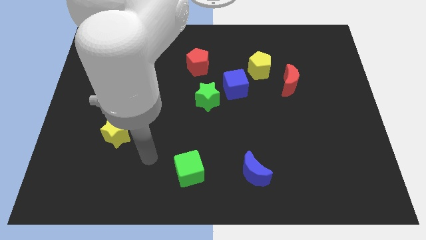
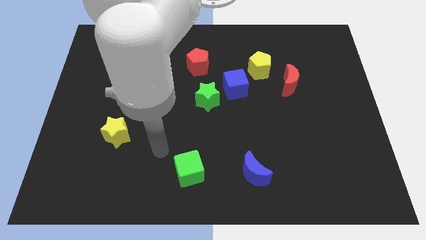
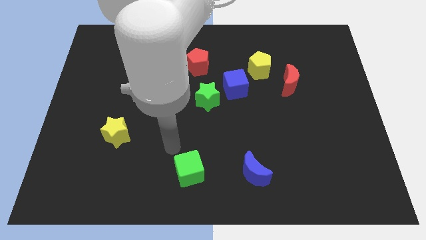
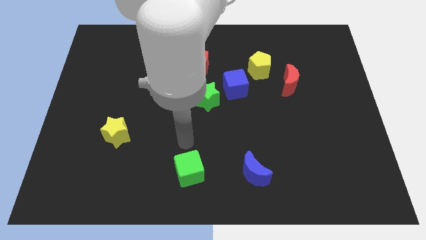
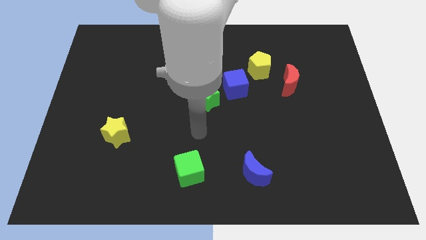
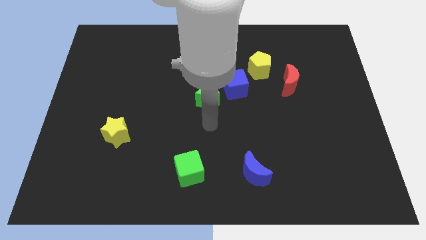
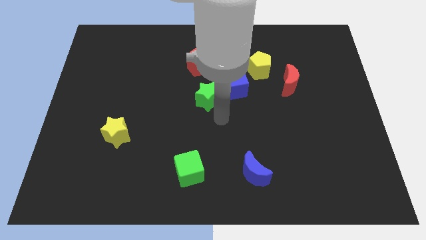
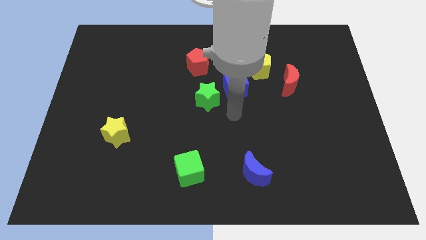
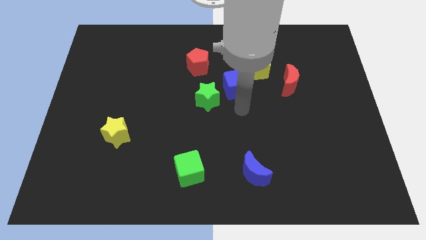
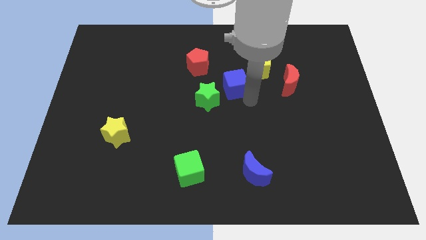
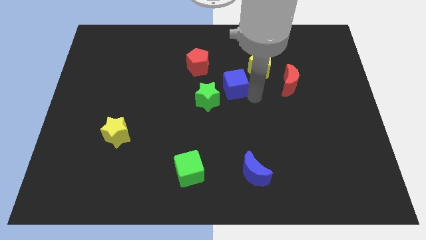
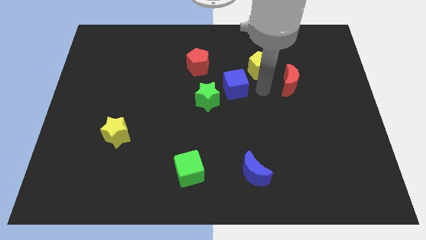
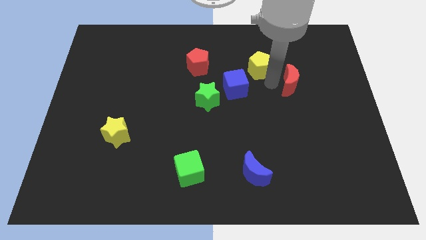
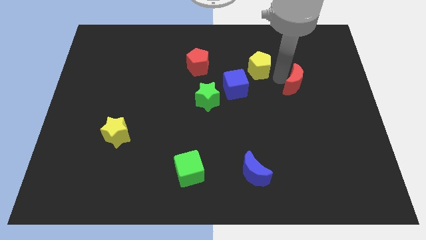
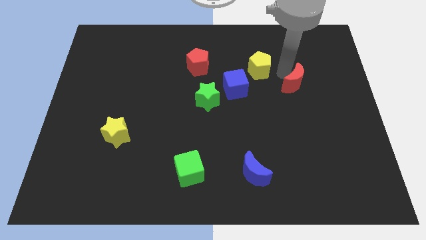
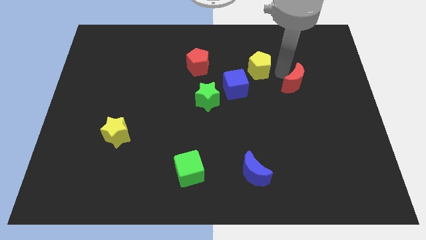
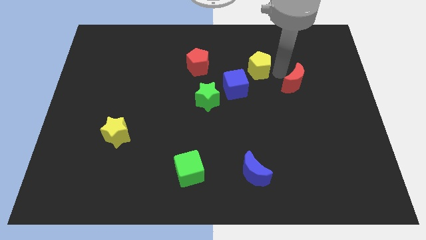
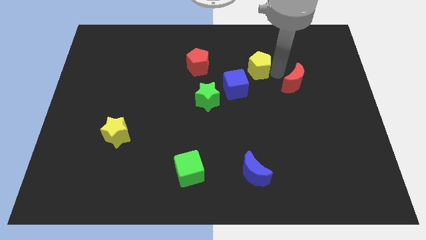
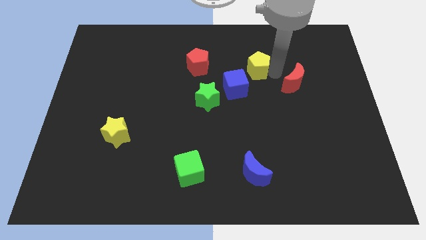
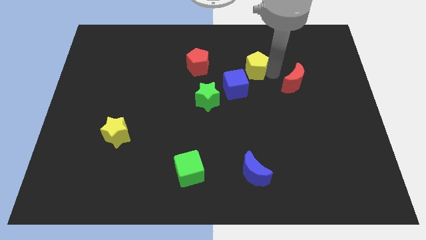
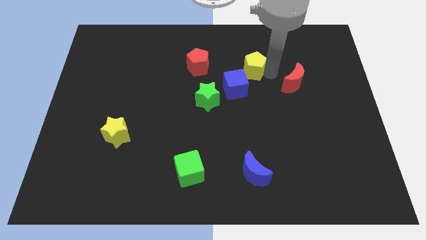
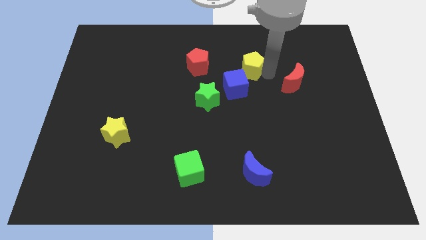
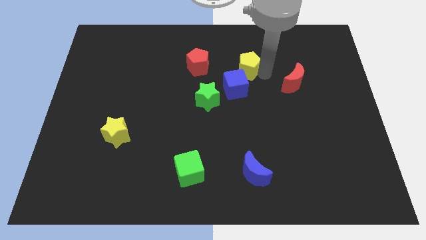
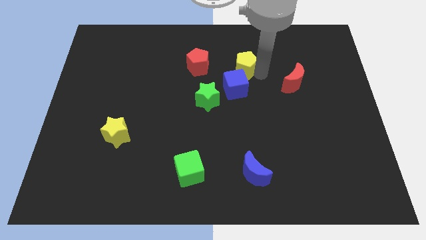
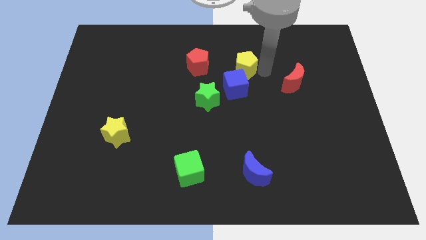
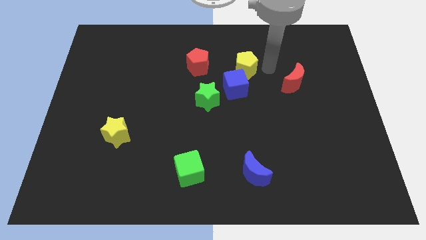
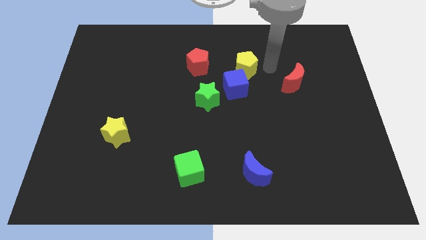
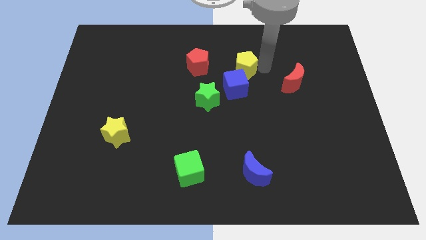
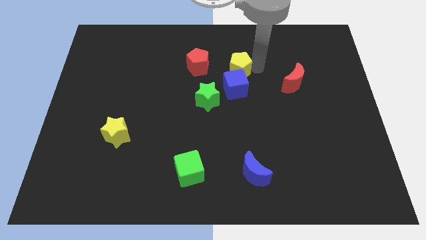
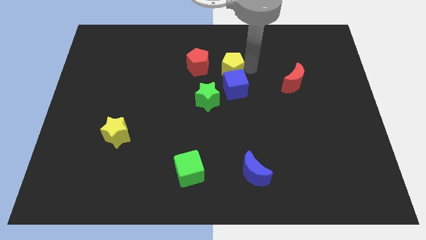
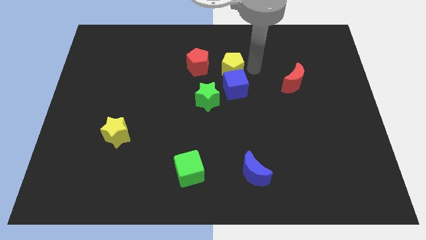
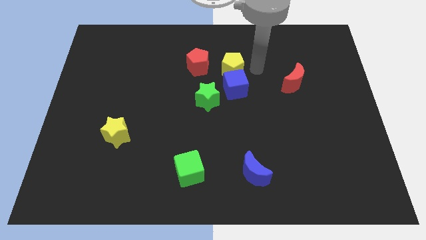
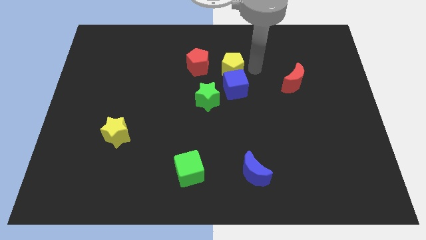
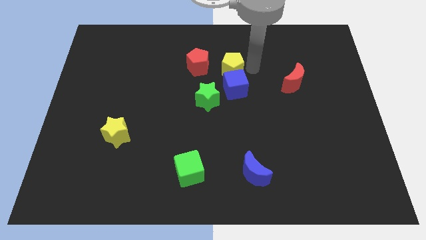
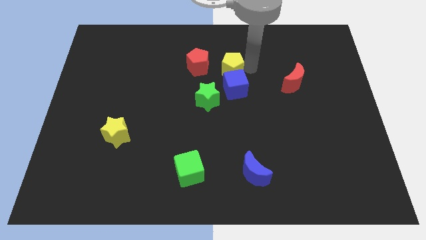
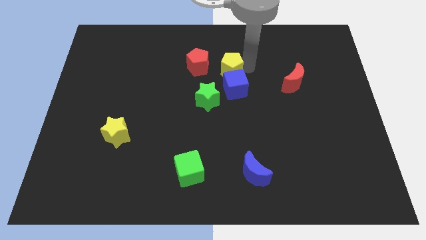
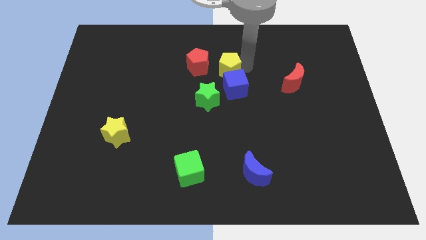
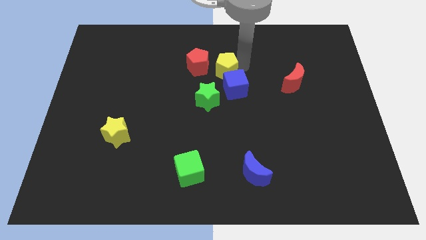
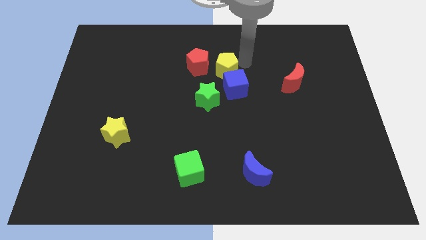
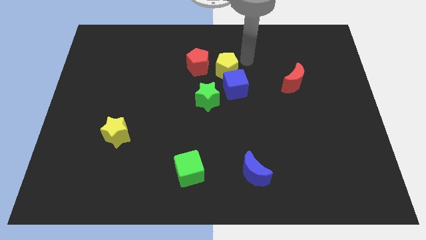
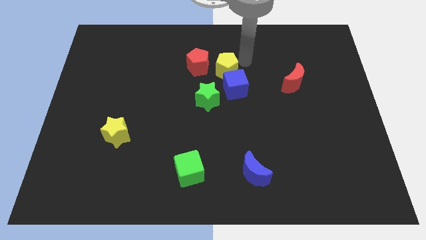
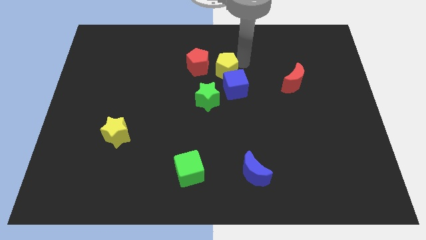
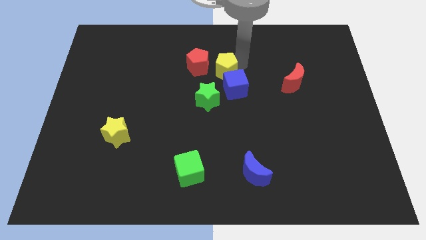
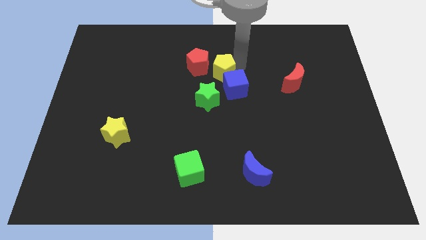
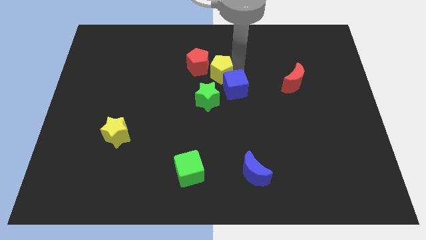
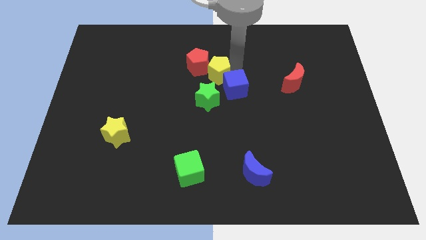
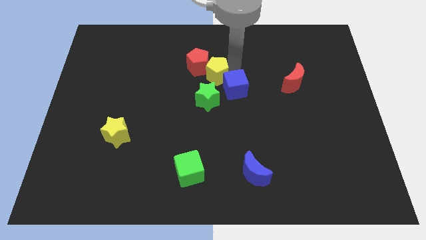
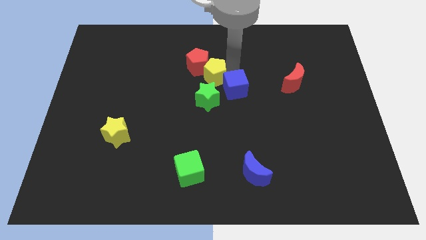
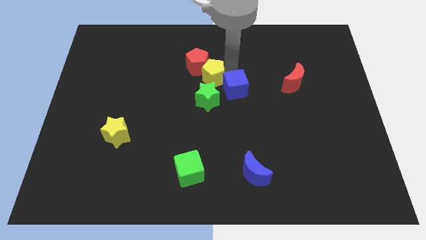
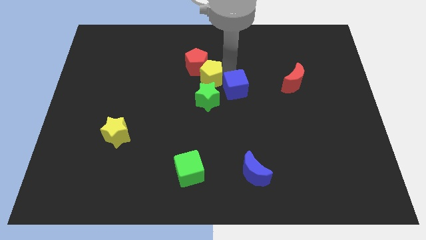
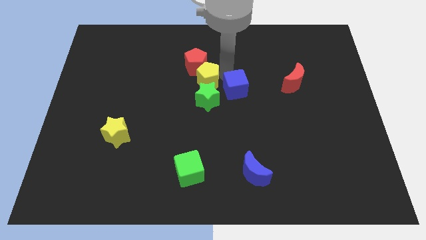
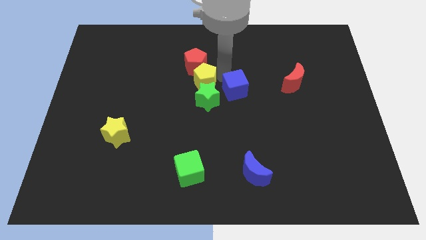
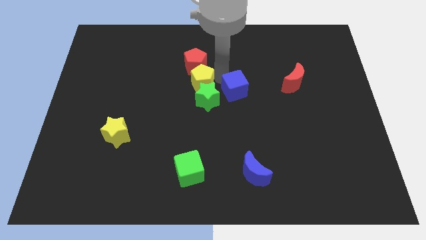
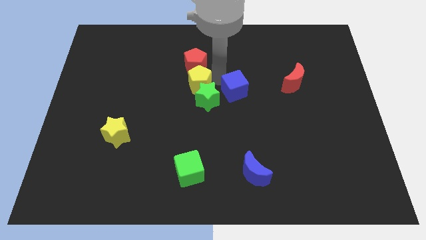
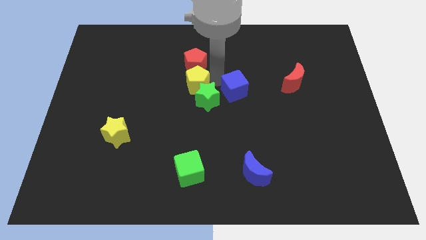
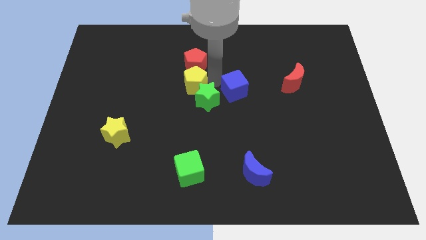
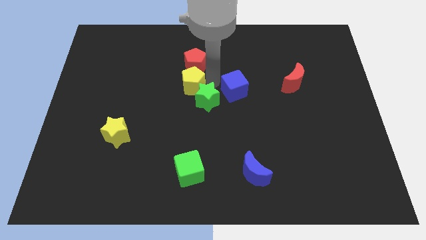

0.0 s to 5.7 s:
put the yellow pentagon left of the green star

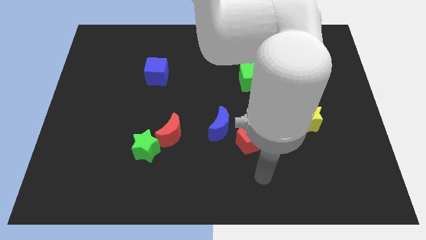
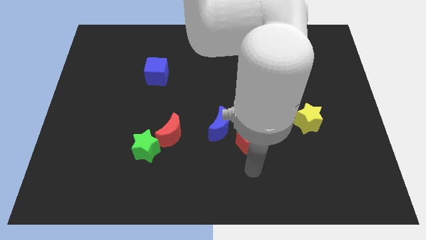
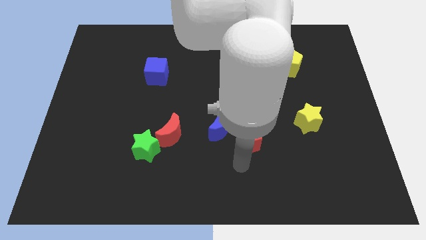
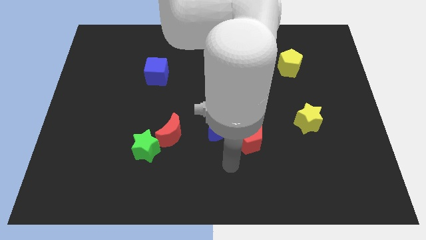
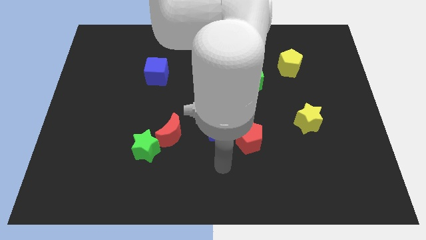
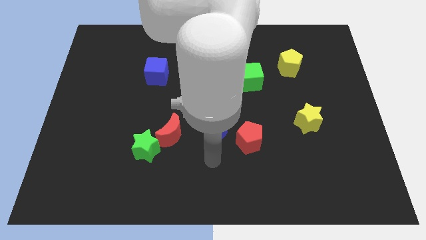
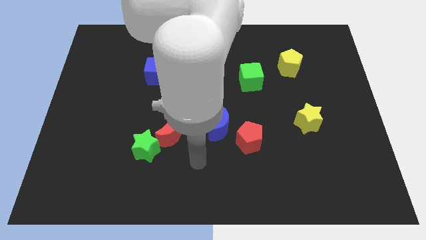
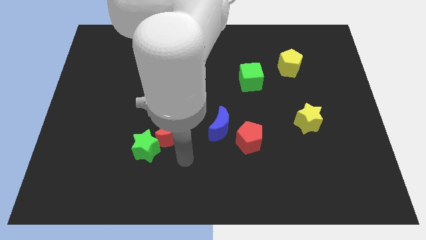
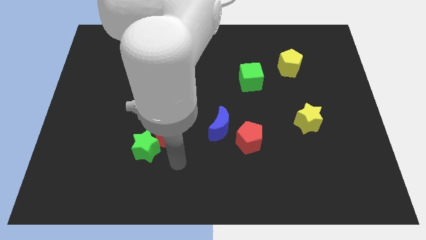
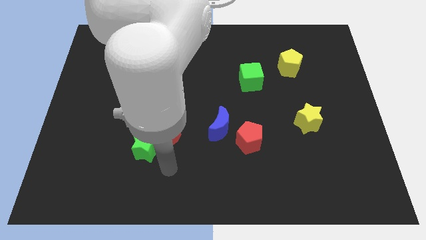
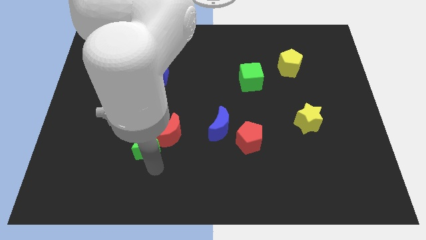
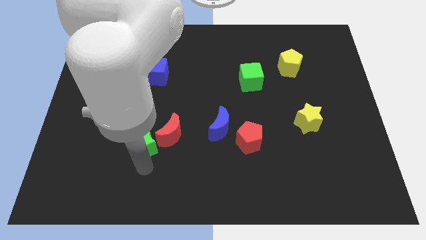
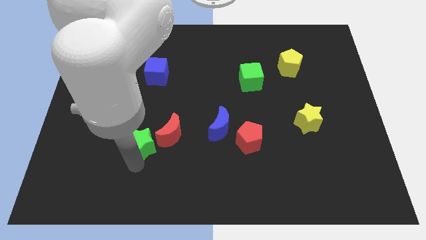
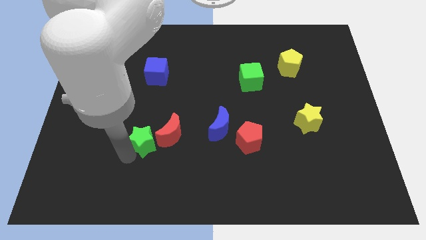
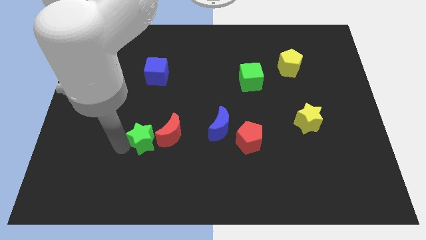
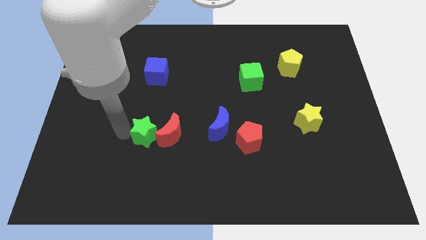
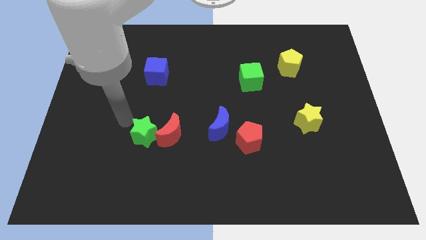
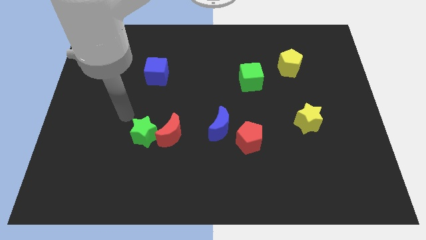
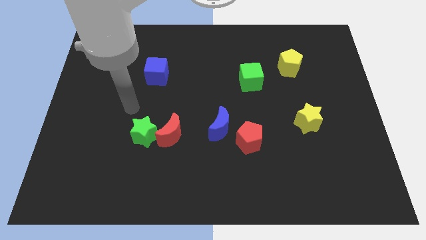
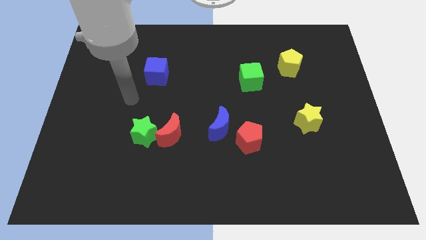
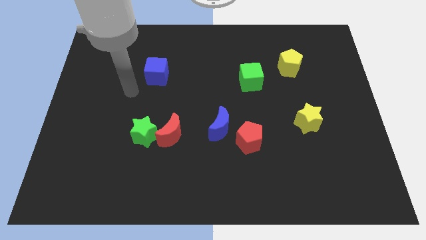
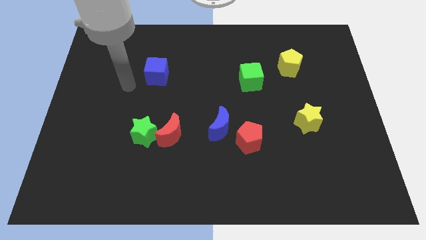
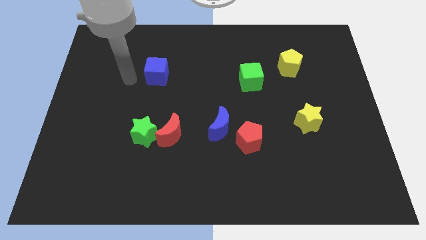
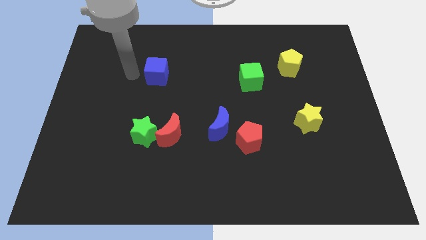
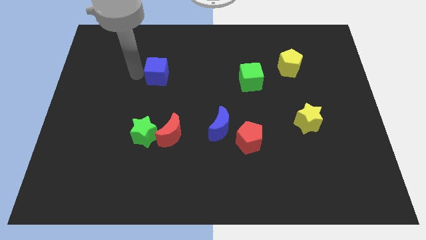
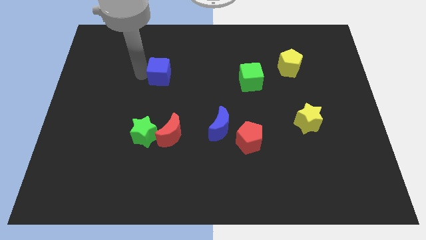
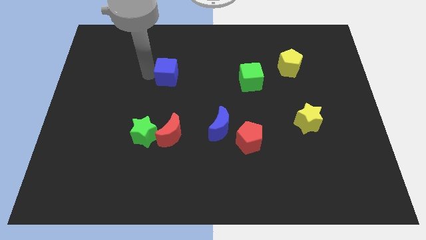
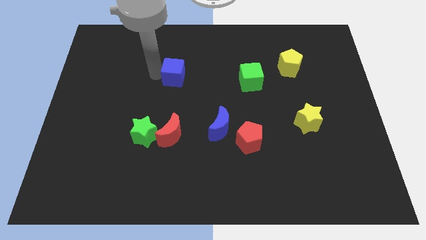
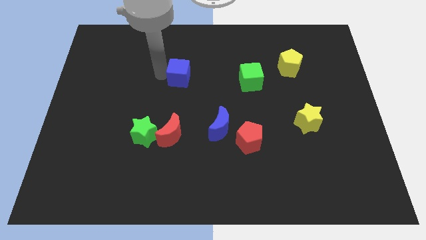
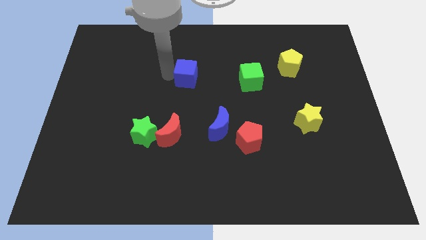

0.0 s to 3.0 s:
slide the blue cube to the left side of the green cube
